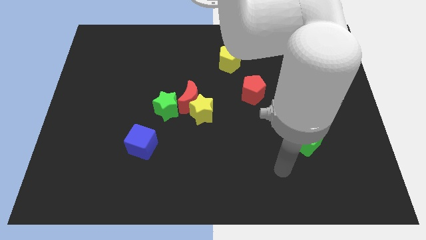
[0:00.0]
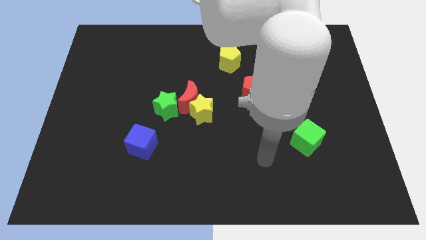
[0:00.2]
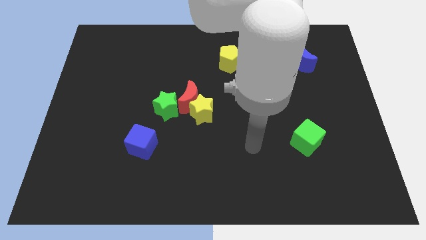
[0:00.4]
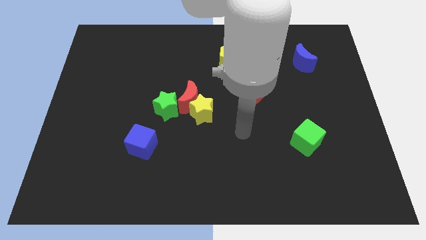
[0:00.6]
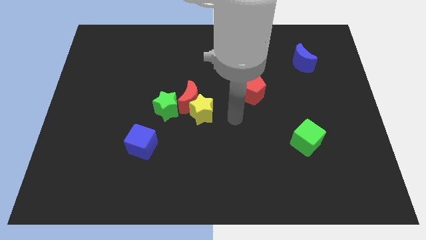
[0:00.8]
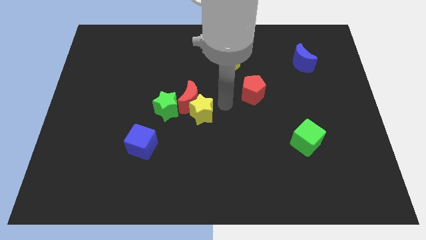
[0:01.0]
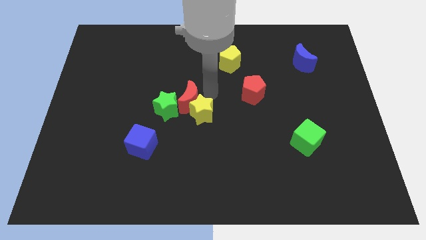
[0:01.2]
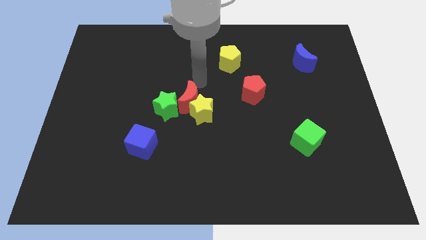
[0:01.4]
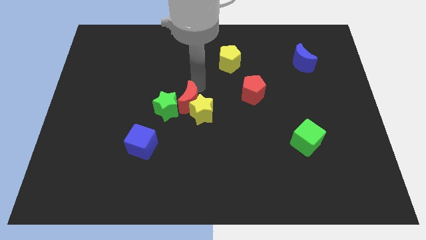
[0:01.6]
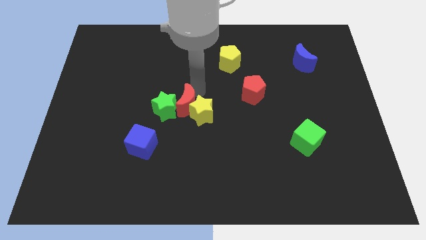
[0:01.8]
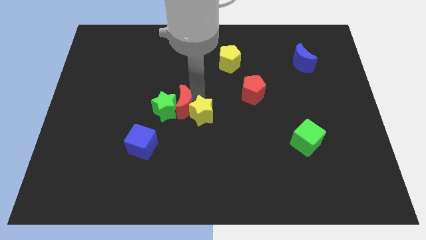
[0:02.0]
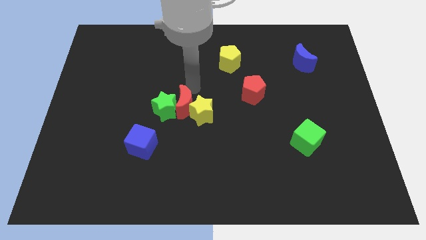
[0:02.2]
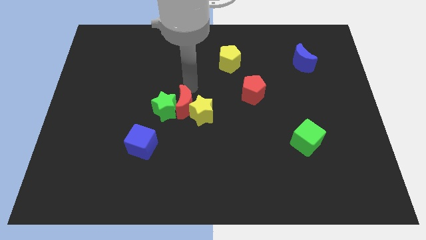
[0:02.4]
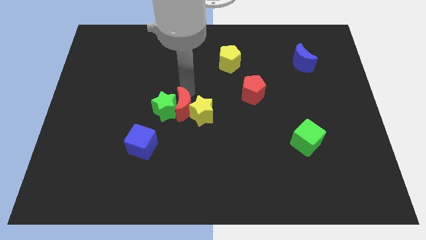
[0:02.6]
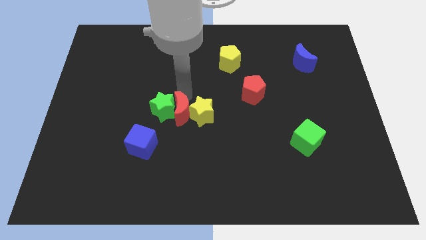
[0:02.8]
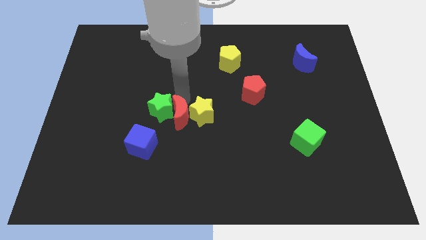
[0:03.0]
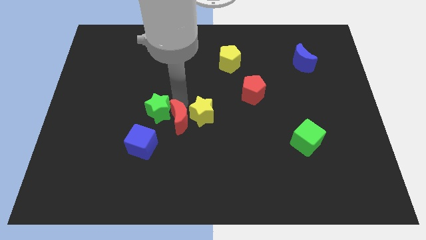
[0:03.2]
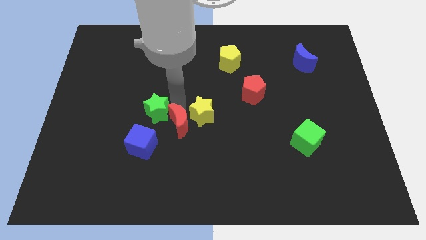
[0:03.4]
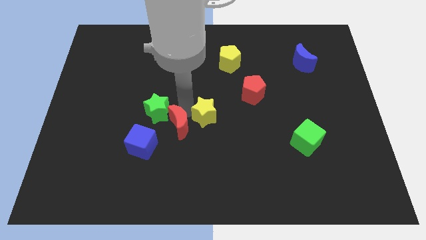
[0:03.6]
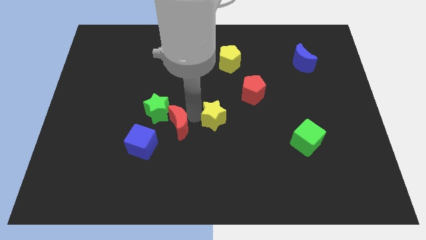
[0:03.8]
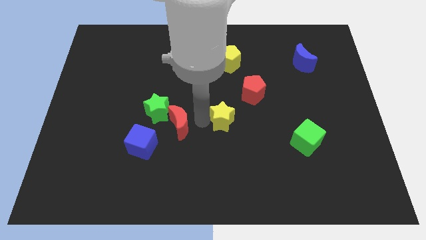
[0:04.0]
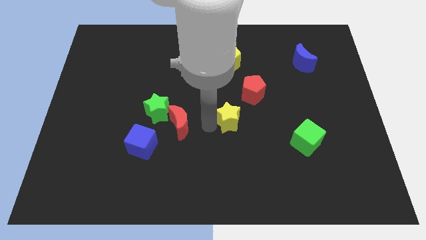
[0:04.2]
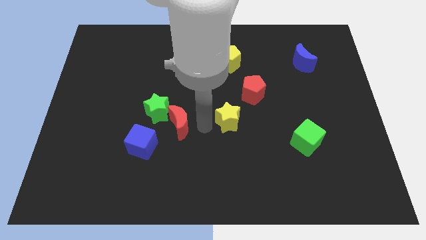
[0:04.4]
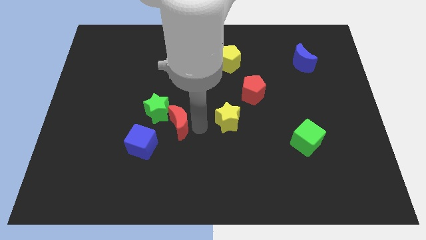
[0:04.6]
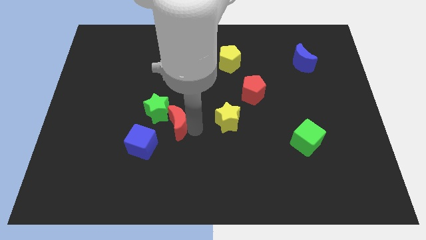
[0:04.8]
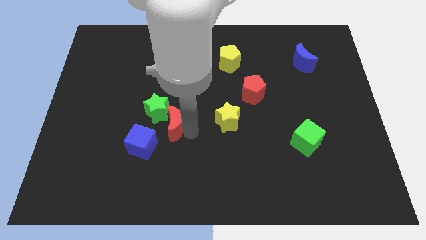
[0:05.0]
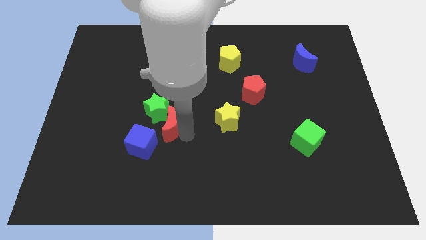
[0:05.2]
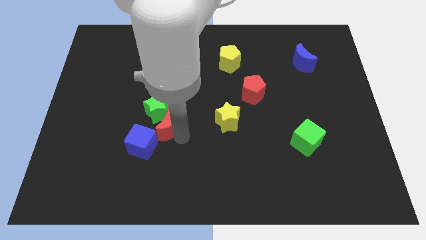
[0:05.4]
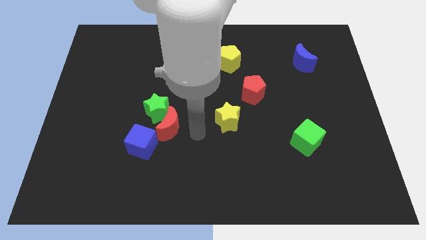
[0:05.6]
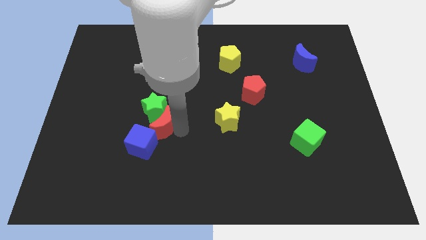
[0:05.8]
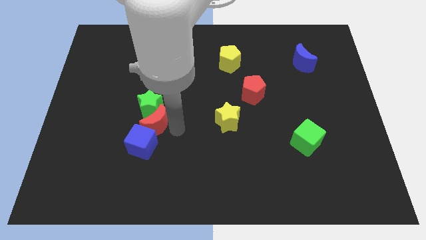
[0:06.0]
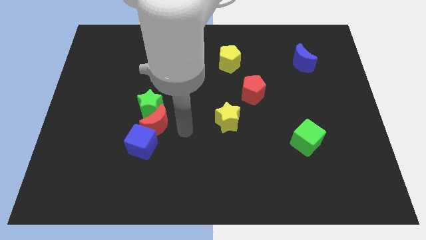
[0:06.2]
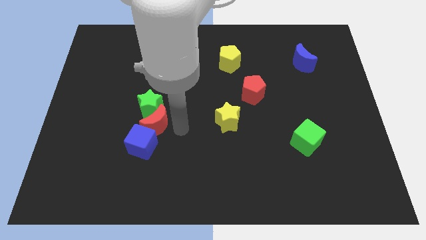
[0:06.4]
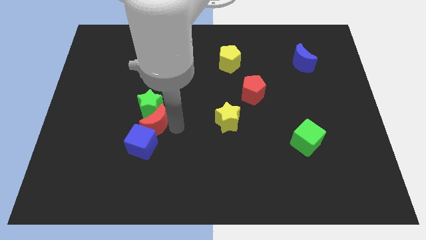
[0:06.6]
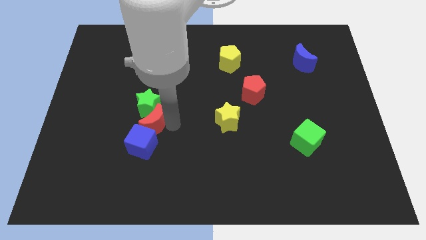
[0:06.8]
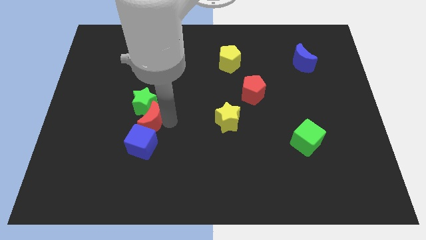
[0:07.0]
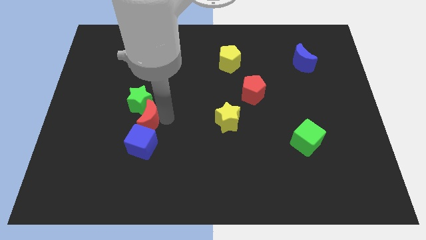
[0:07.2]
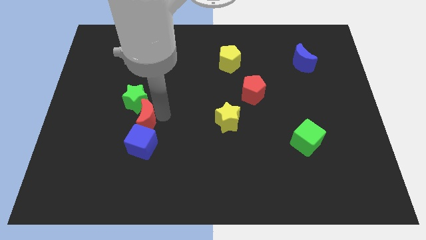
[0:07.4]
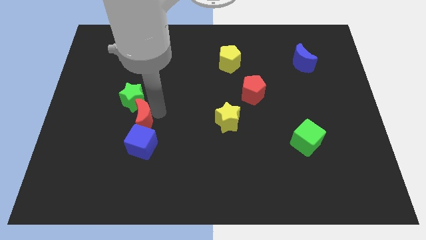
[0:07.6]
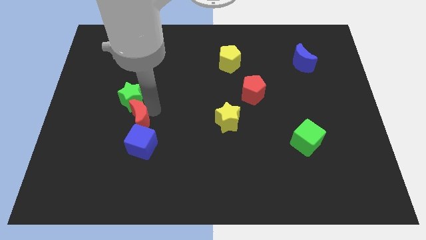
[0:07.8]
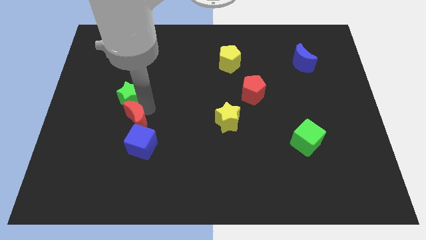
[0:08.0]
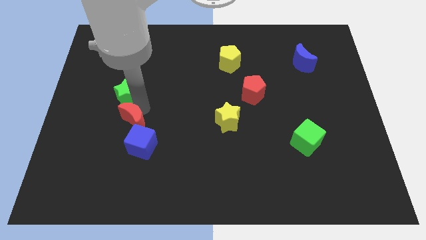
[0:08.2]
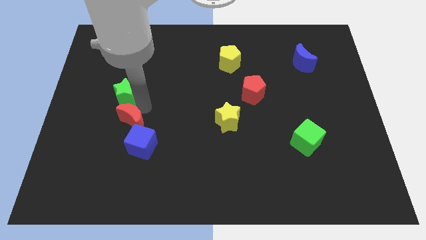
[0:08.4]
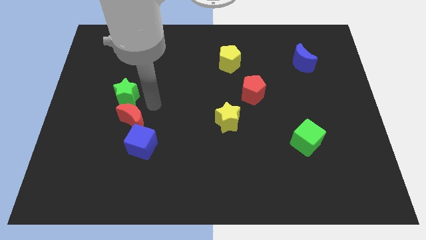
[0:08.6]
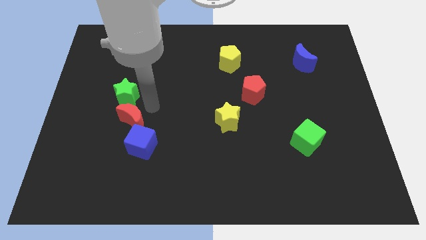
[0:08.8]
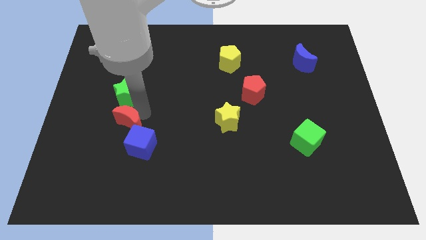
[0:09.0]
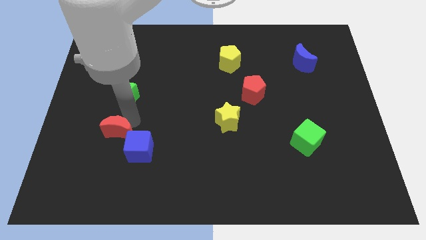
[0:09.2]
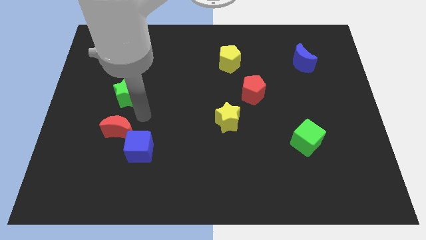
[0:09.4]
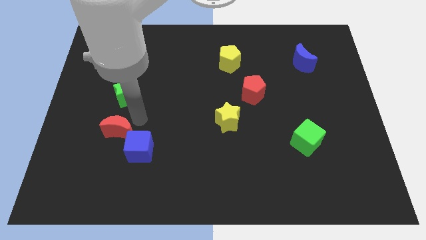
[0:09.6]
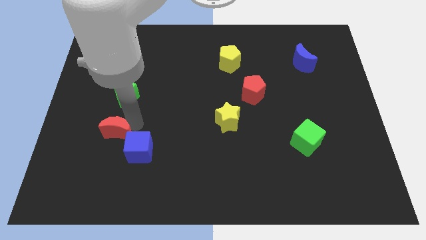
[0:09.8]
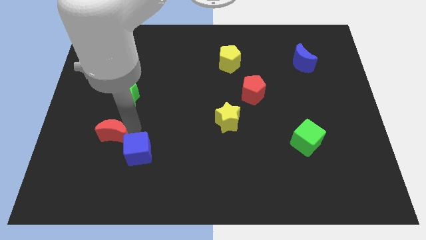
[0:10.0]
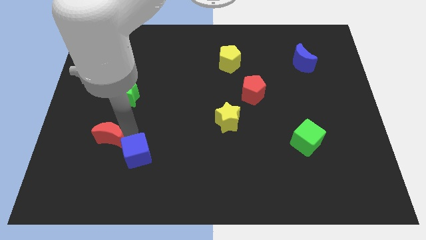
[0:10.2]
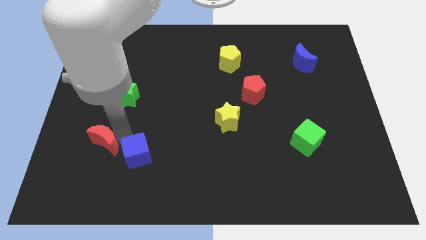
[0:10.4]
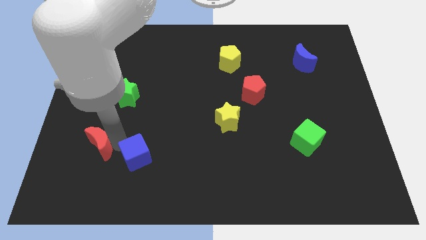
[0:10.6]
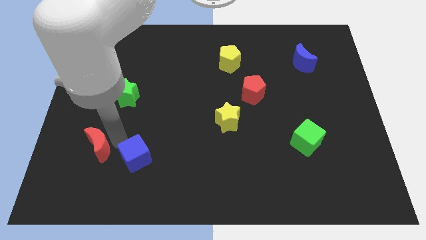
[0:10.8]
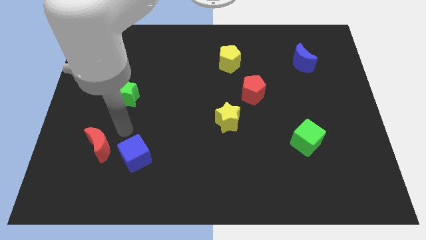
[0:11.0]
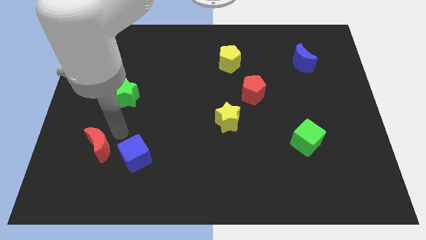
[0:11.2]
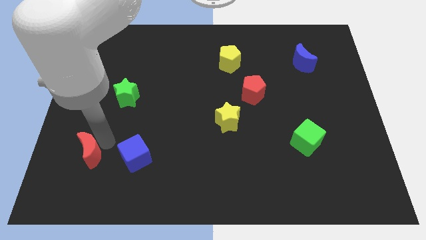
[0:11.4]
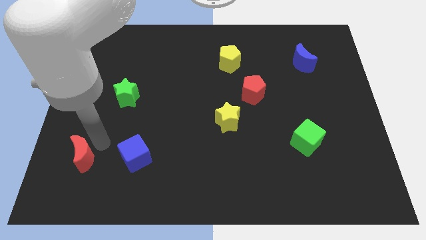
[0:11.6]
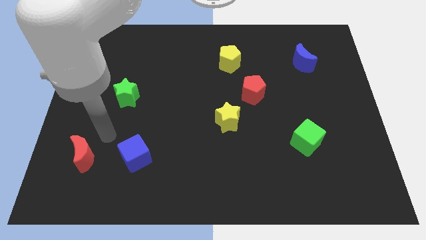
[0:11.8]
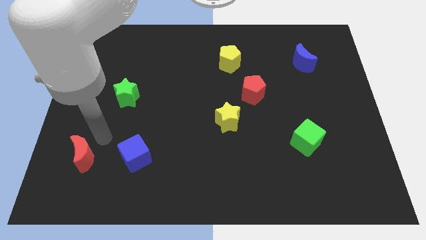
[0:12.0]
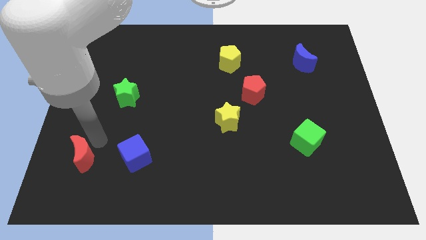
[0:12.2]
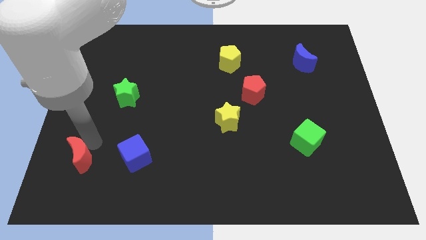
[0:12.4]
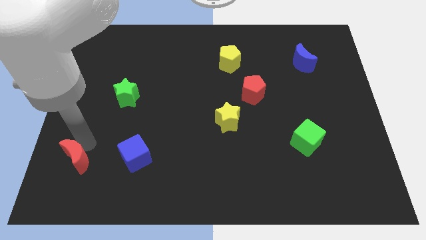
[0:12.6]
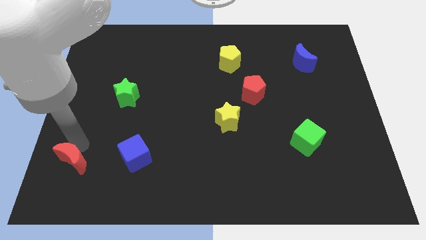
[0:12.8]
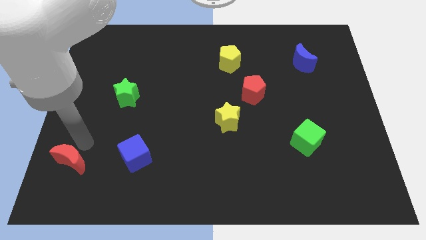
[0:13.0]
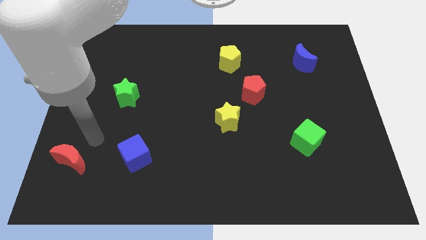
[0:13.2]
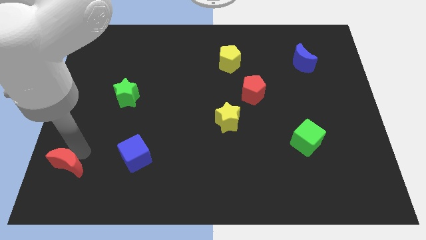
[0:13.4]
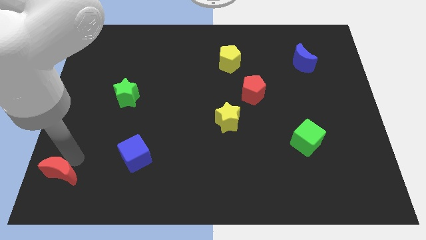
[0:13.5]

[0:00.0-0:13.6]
push the red moon to the bottom left corner
